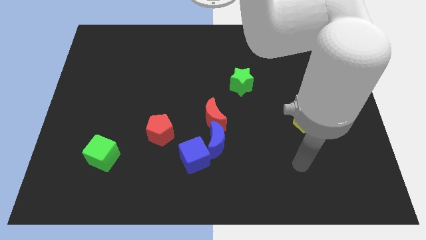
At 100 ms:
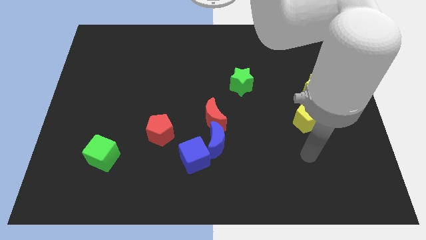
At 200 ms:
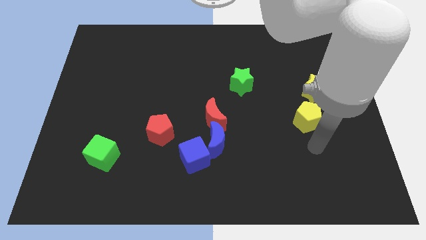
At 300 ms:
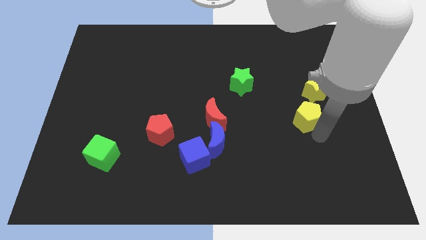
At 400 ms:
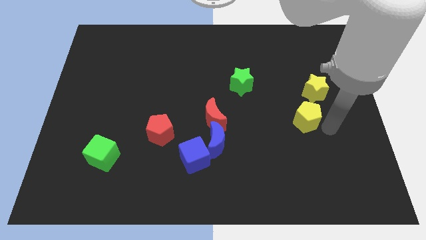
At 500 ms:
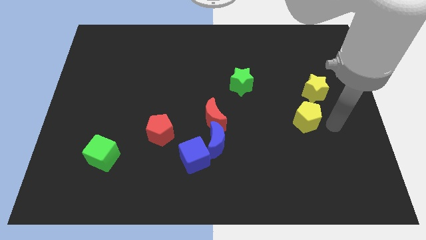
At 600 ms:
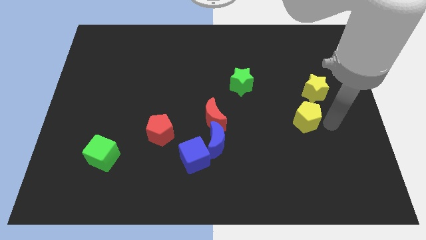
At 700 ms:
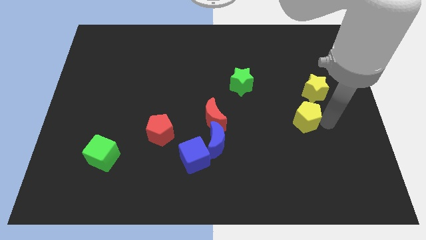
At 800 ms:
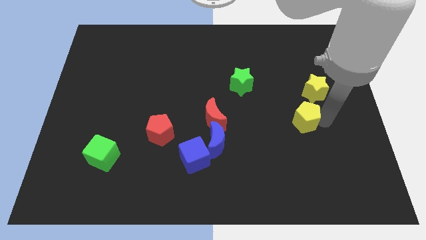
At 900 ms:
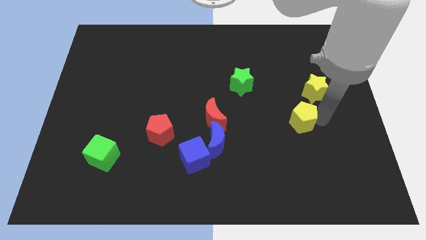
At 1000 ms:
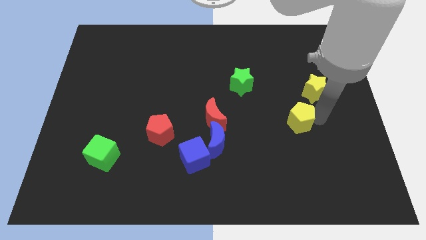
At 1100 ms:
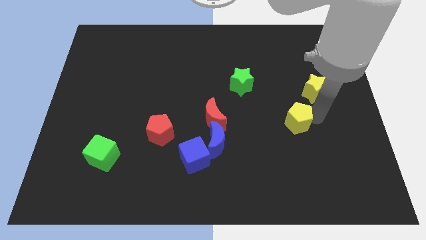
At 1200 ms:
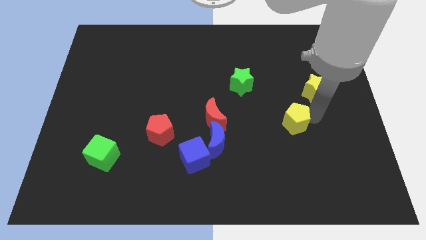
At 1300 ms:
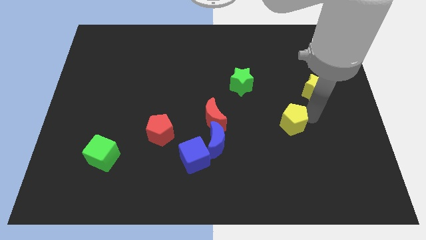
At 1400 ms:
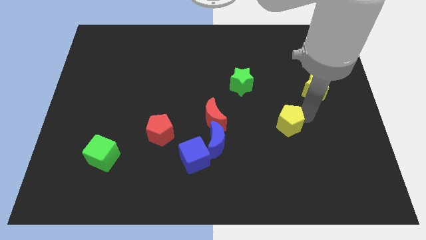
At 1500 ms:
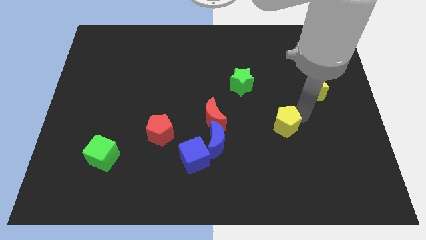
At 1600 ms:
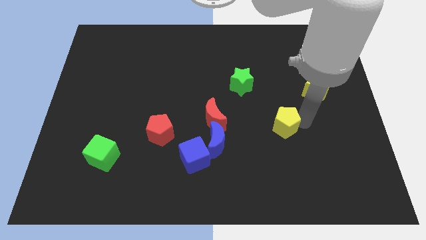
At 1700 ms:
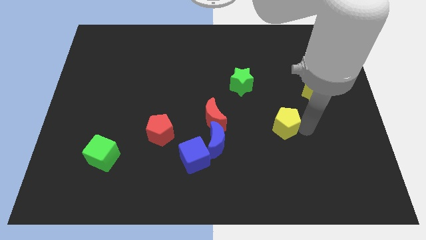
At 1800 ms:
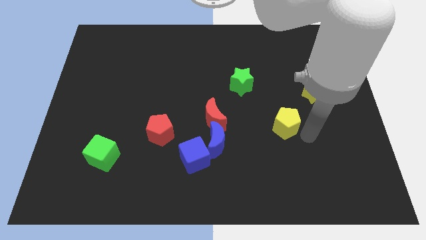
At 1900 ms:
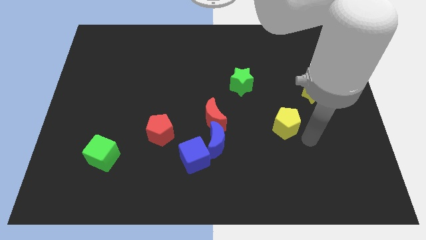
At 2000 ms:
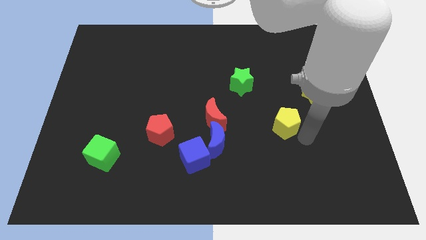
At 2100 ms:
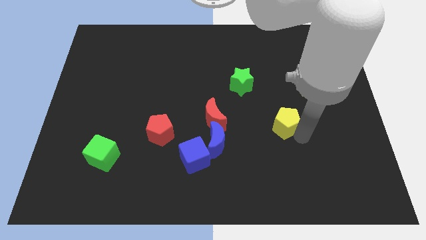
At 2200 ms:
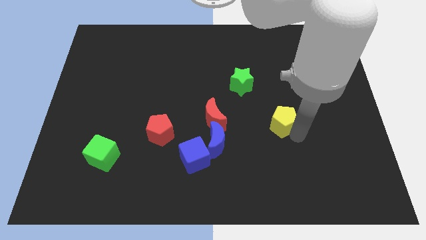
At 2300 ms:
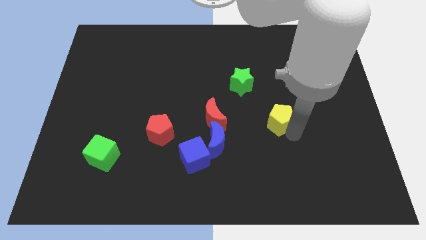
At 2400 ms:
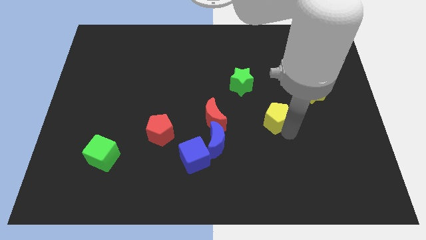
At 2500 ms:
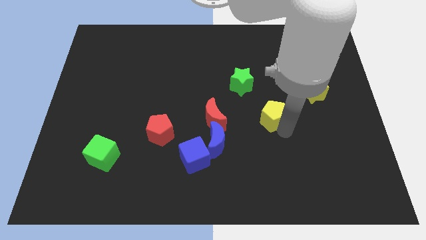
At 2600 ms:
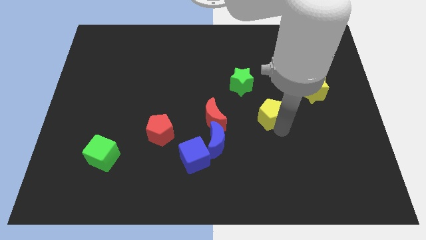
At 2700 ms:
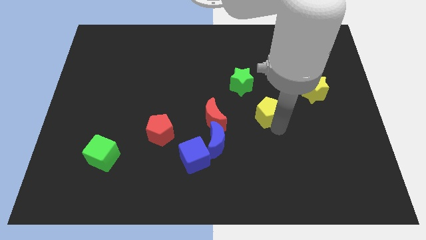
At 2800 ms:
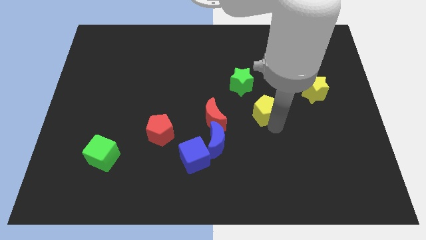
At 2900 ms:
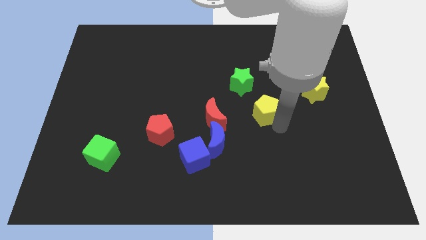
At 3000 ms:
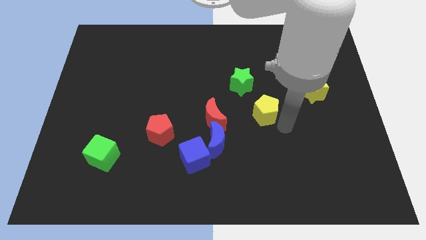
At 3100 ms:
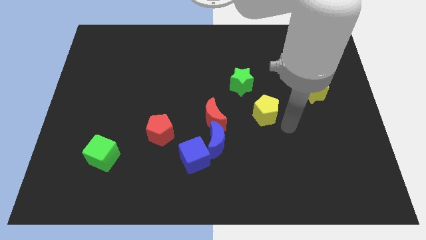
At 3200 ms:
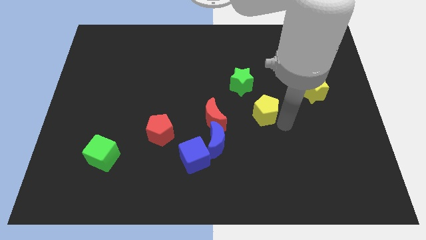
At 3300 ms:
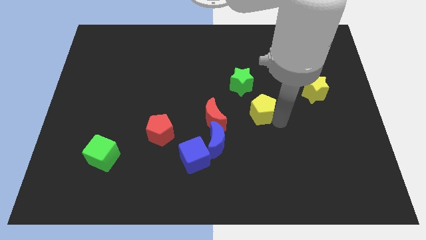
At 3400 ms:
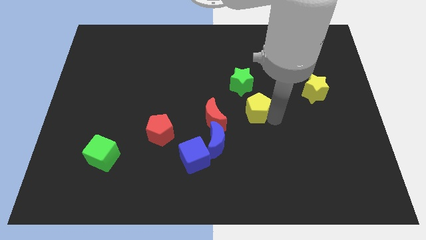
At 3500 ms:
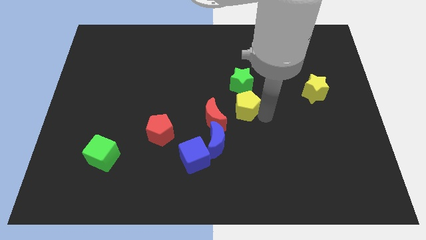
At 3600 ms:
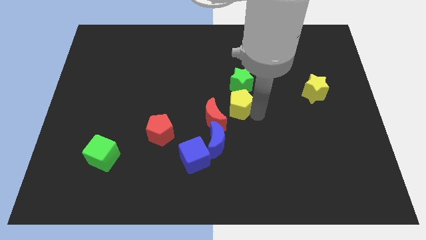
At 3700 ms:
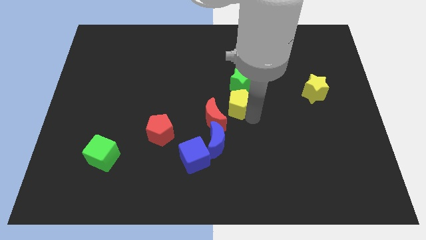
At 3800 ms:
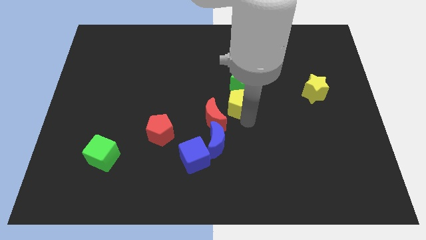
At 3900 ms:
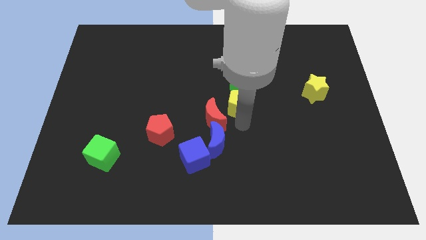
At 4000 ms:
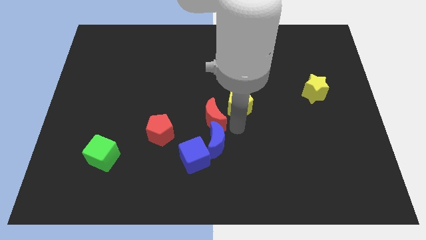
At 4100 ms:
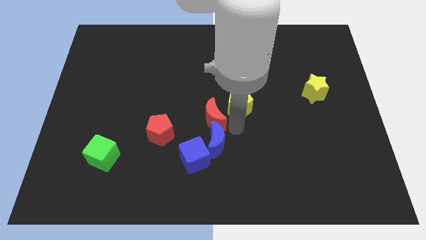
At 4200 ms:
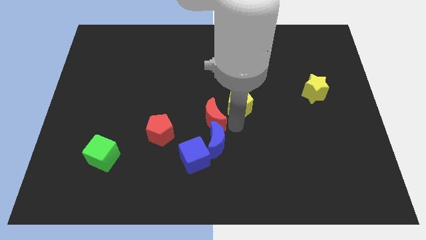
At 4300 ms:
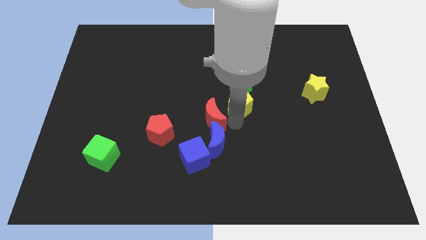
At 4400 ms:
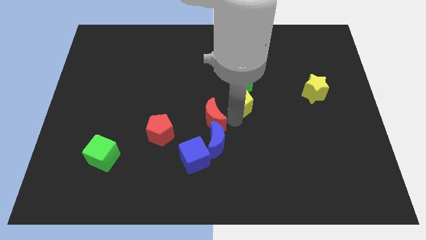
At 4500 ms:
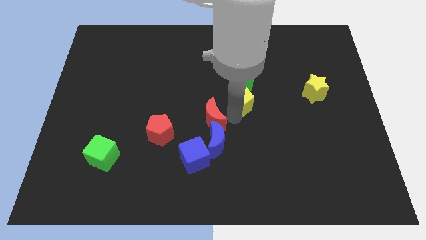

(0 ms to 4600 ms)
slide the yellow pentagon close to the green star

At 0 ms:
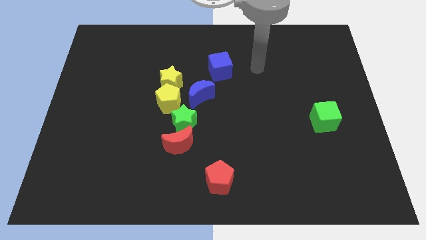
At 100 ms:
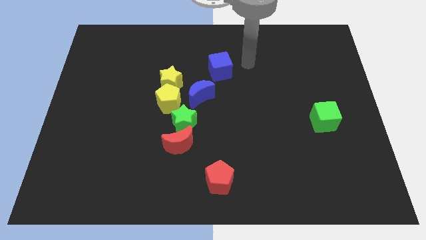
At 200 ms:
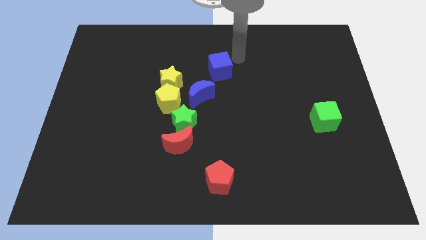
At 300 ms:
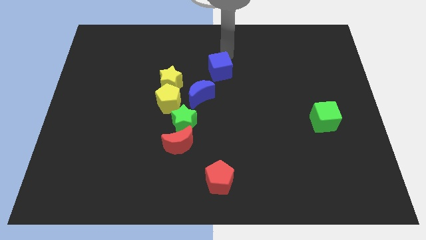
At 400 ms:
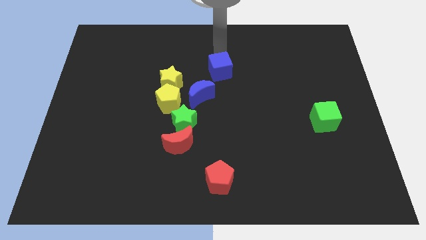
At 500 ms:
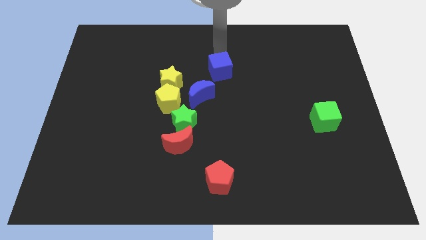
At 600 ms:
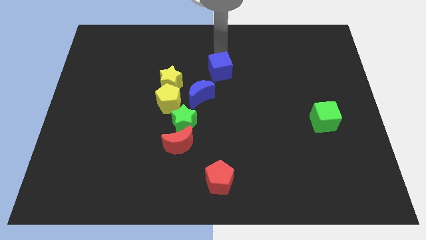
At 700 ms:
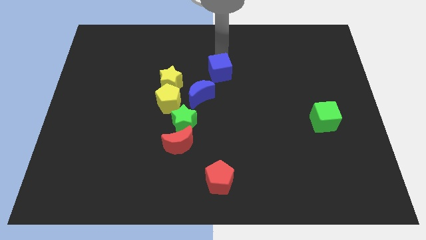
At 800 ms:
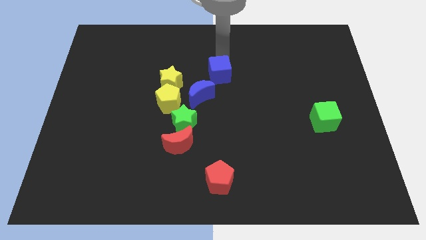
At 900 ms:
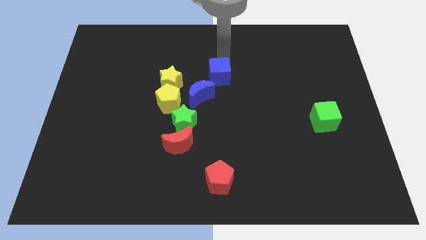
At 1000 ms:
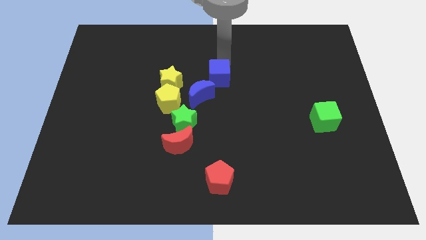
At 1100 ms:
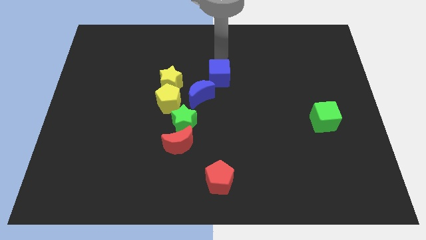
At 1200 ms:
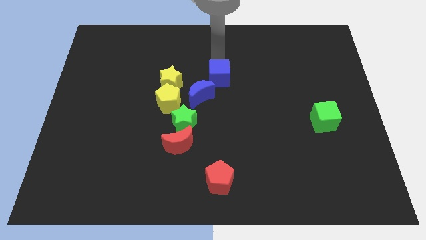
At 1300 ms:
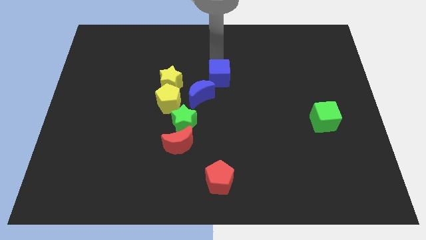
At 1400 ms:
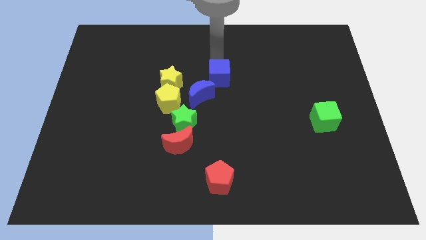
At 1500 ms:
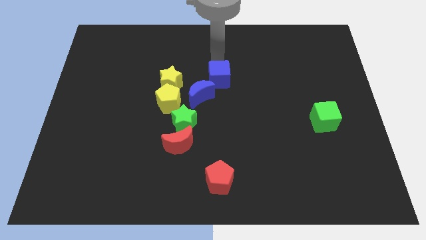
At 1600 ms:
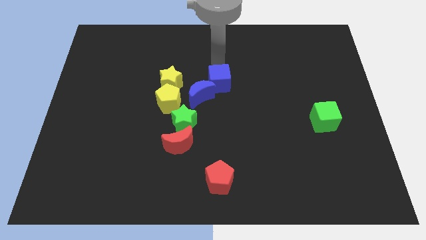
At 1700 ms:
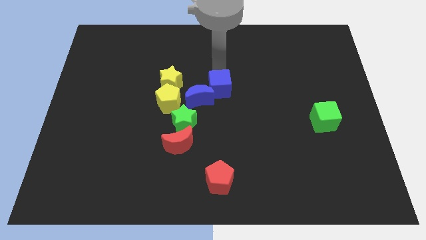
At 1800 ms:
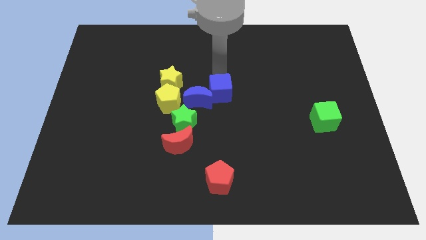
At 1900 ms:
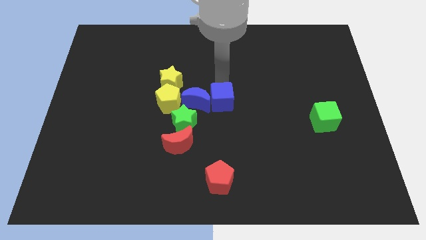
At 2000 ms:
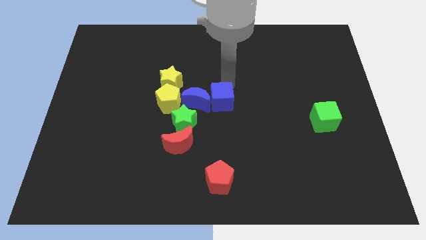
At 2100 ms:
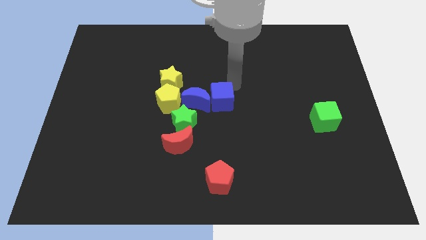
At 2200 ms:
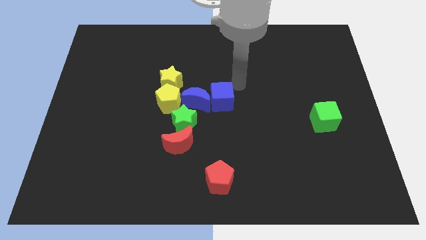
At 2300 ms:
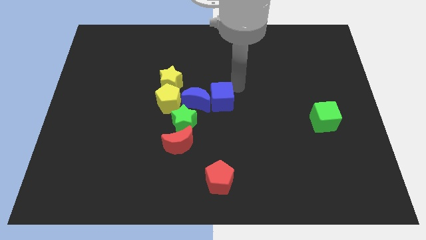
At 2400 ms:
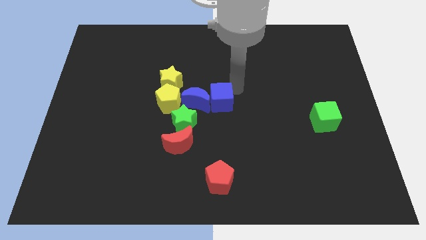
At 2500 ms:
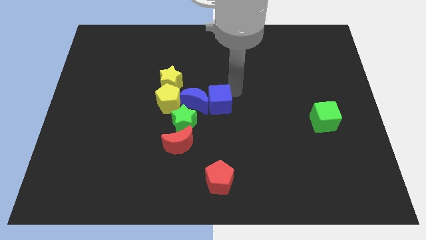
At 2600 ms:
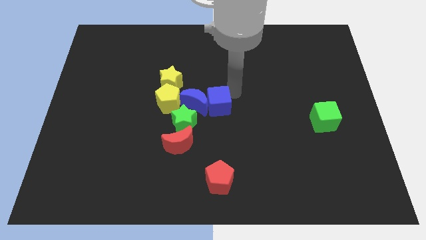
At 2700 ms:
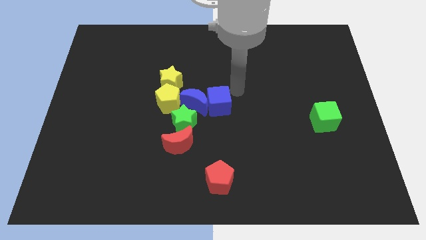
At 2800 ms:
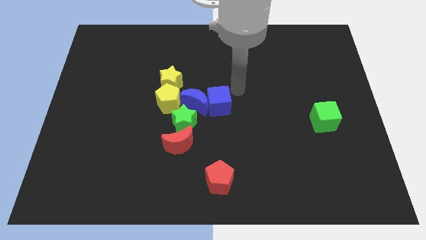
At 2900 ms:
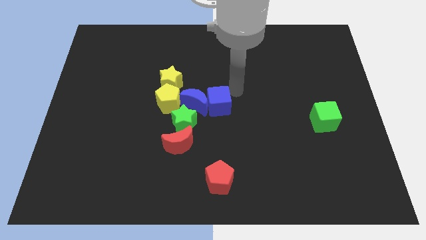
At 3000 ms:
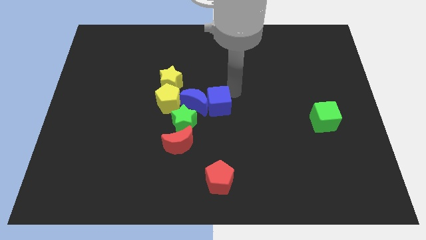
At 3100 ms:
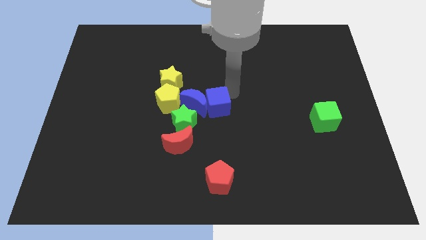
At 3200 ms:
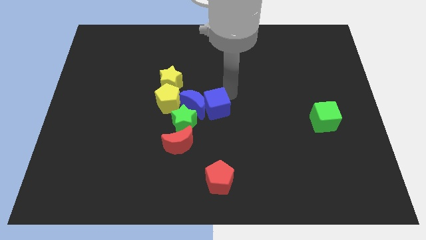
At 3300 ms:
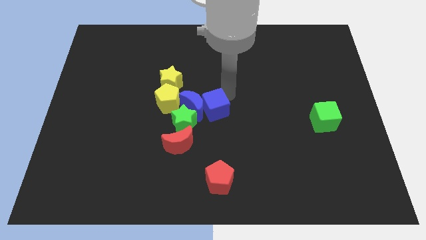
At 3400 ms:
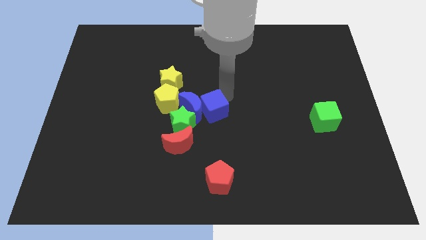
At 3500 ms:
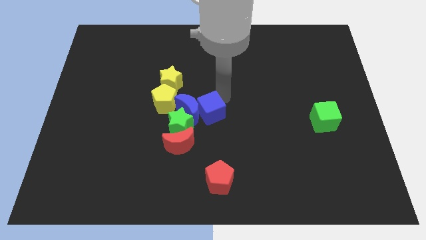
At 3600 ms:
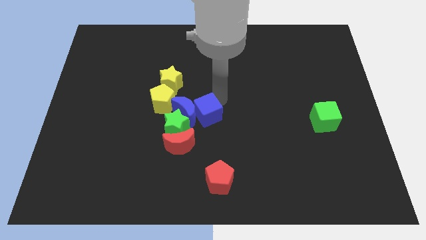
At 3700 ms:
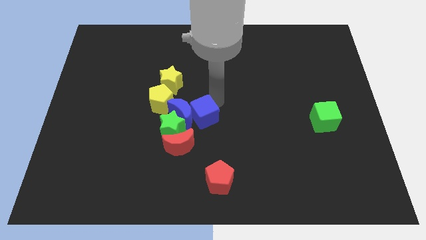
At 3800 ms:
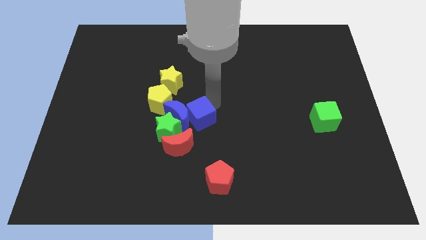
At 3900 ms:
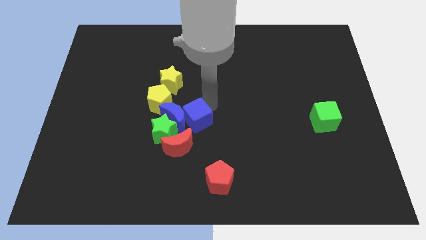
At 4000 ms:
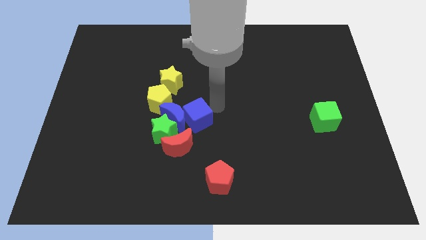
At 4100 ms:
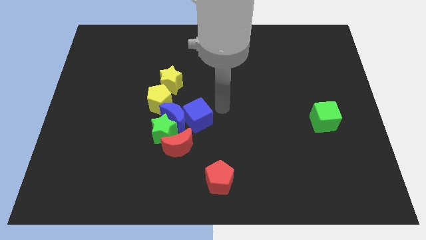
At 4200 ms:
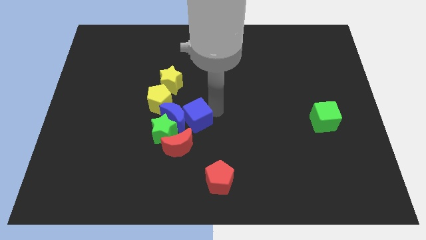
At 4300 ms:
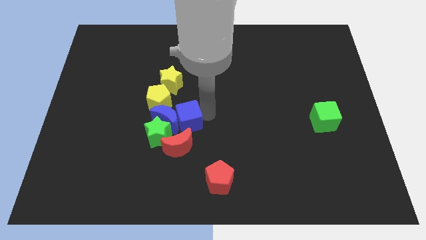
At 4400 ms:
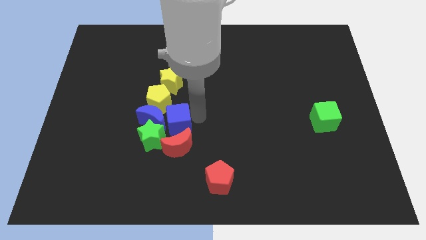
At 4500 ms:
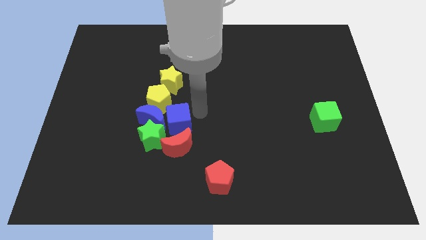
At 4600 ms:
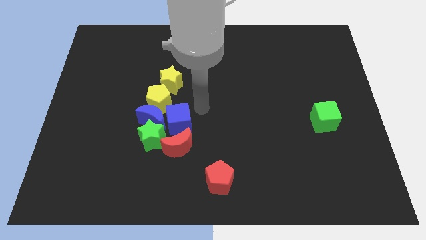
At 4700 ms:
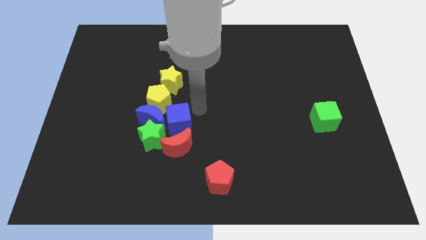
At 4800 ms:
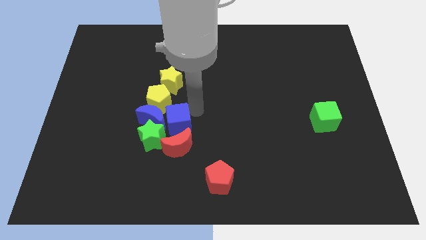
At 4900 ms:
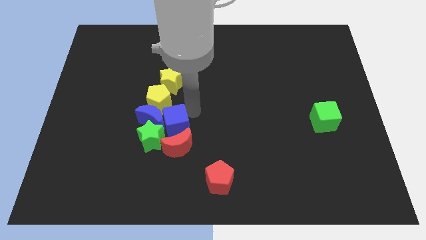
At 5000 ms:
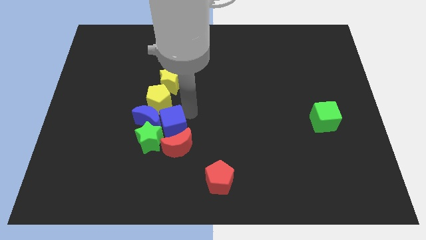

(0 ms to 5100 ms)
put the blue cube to the green star
